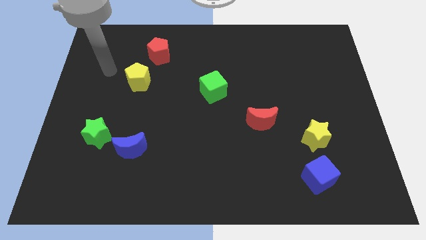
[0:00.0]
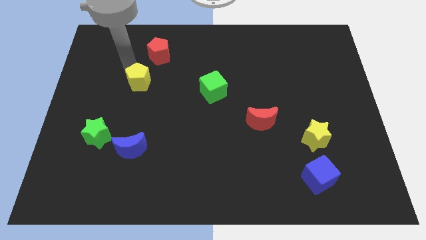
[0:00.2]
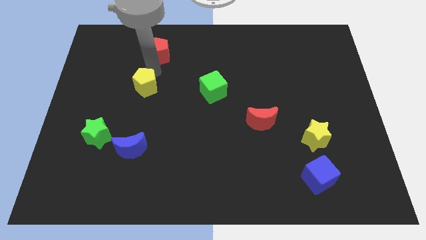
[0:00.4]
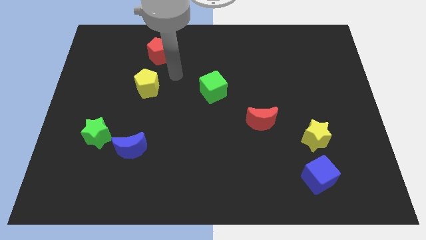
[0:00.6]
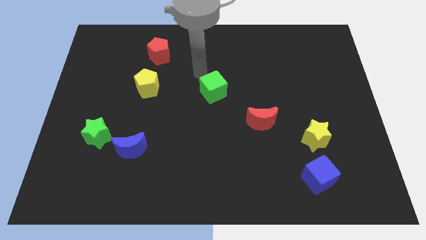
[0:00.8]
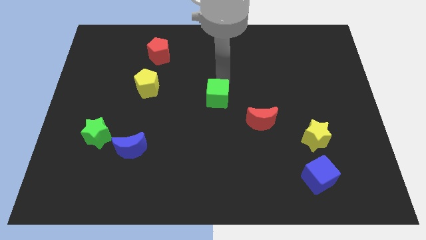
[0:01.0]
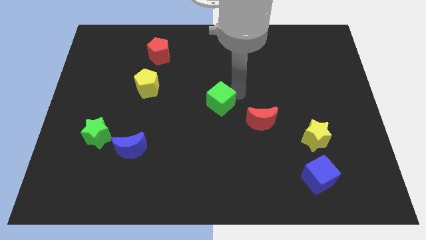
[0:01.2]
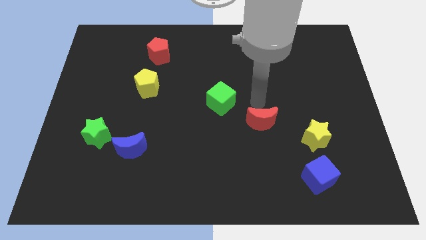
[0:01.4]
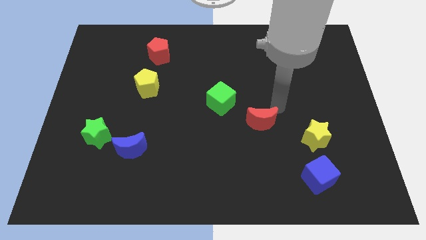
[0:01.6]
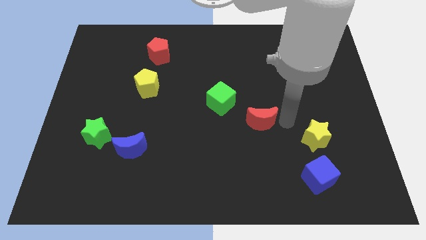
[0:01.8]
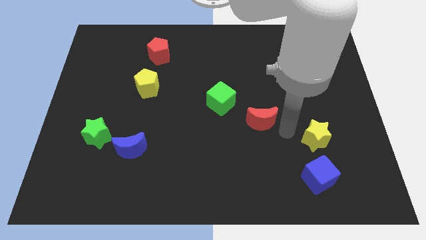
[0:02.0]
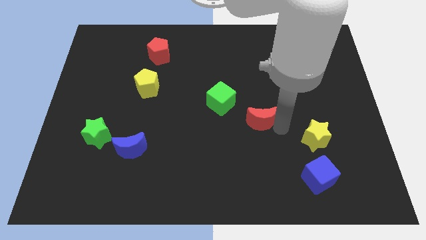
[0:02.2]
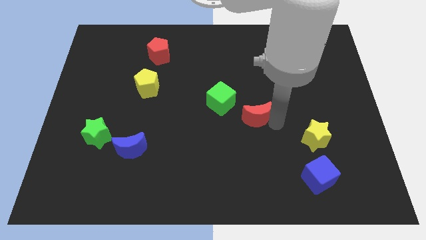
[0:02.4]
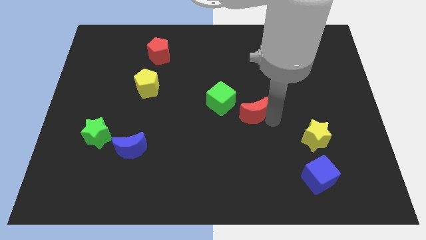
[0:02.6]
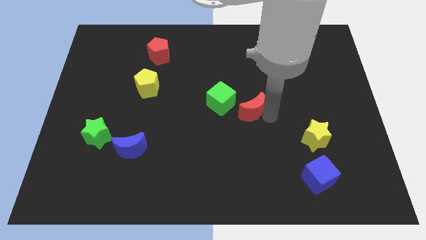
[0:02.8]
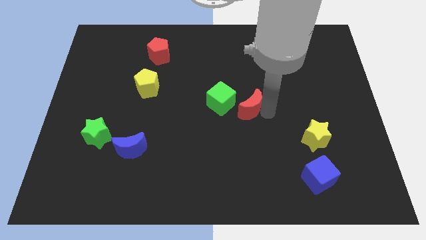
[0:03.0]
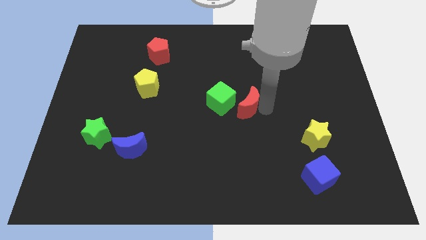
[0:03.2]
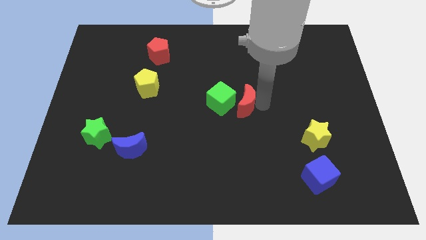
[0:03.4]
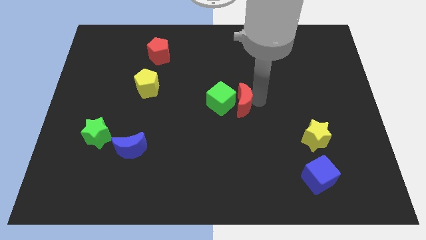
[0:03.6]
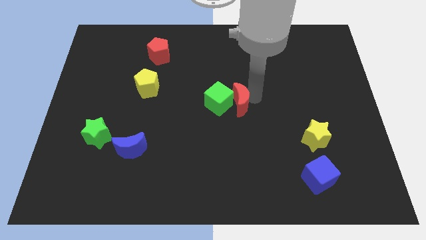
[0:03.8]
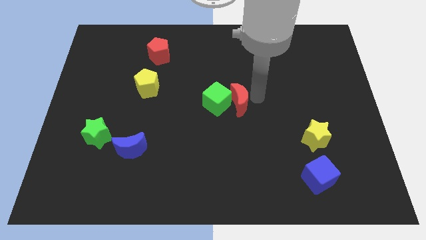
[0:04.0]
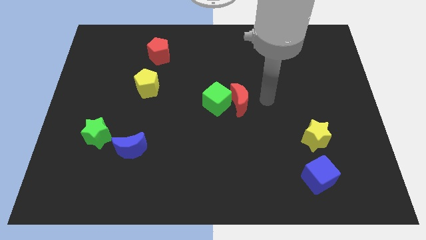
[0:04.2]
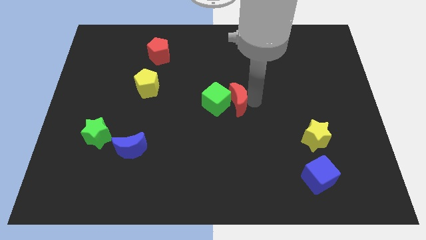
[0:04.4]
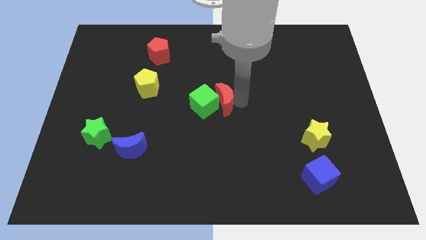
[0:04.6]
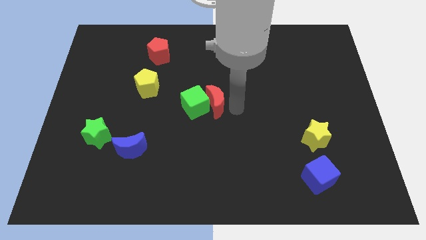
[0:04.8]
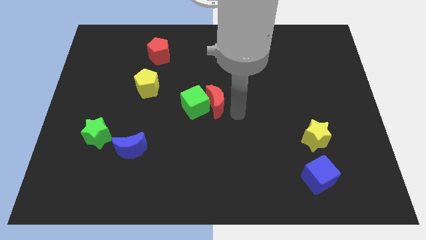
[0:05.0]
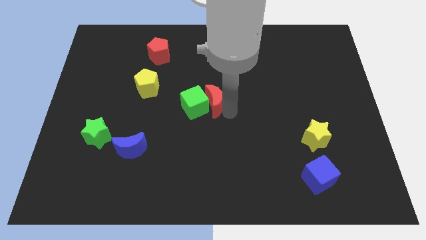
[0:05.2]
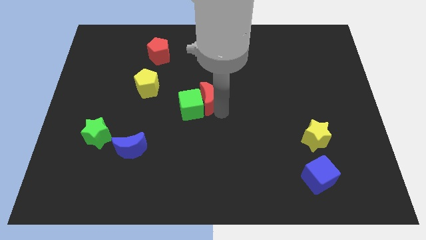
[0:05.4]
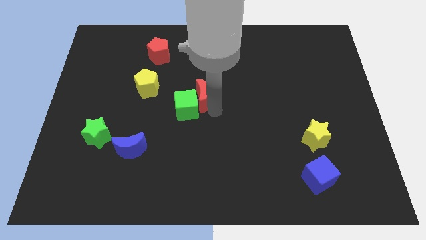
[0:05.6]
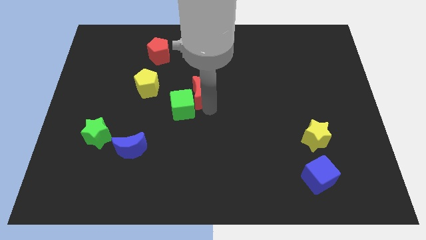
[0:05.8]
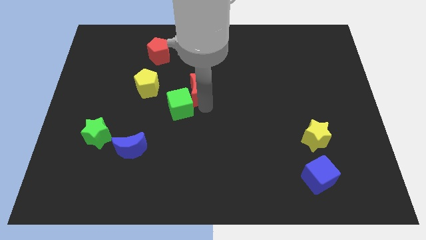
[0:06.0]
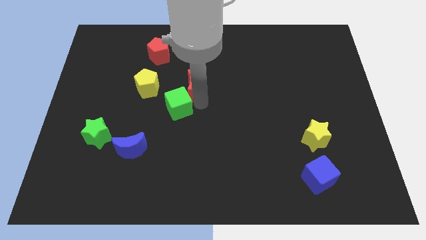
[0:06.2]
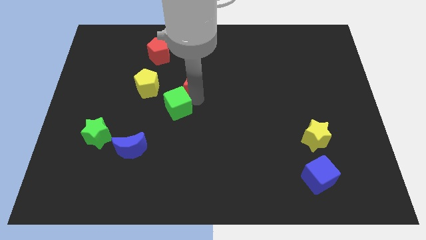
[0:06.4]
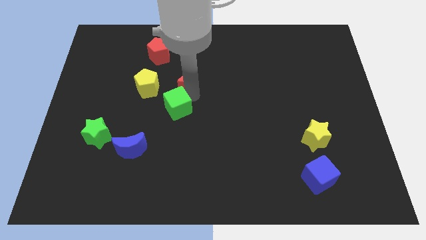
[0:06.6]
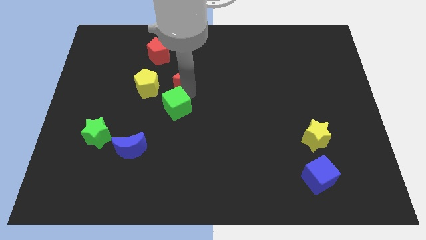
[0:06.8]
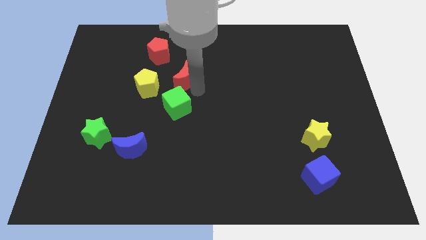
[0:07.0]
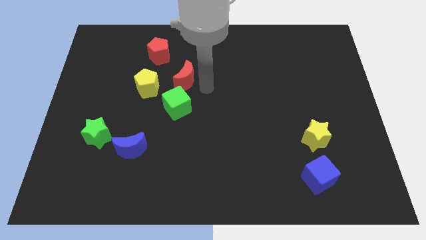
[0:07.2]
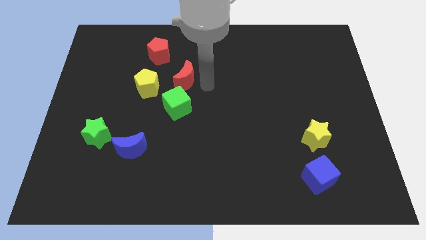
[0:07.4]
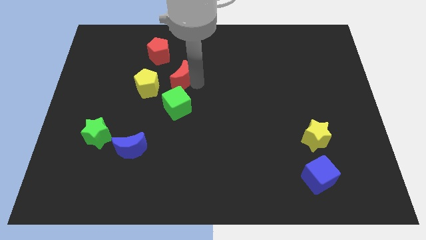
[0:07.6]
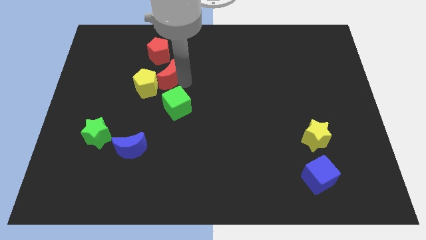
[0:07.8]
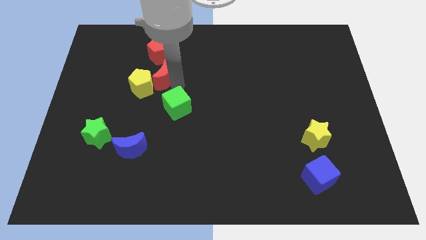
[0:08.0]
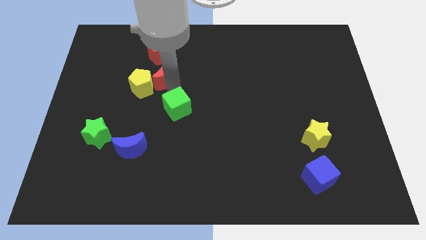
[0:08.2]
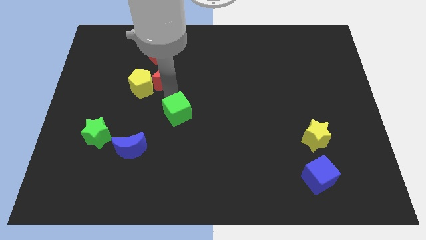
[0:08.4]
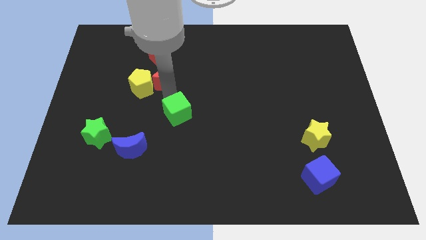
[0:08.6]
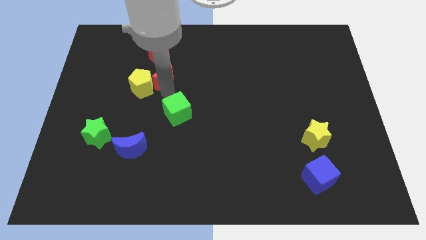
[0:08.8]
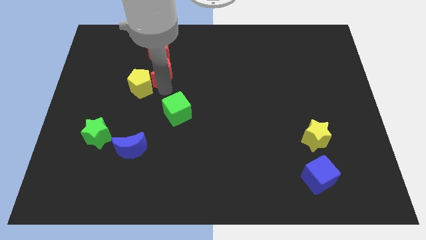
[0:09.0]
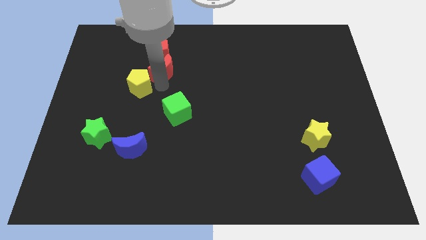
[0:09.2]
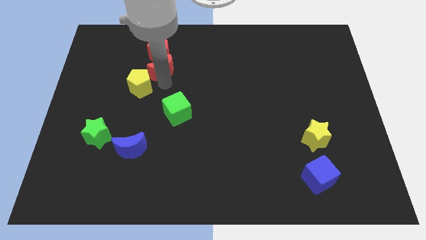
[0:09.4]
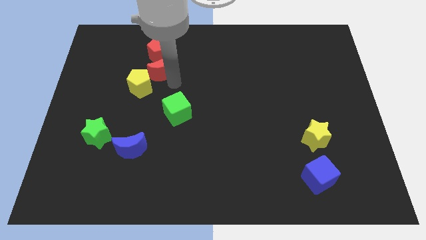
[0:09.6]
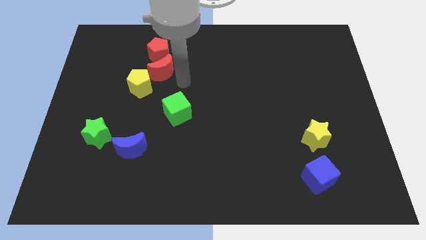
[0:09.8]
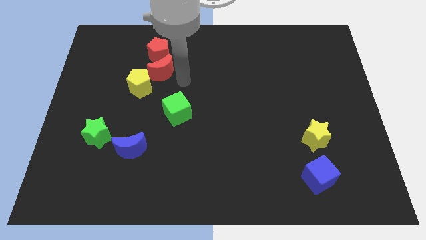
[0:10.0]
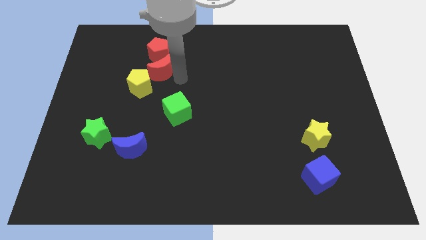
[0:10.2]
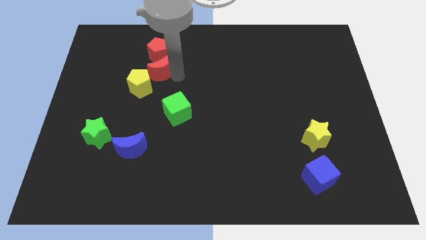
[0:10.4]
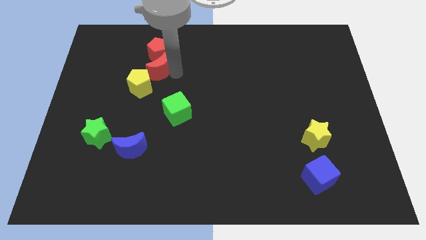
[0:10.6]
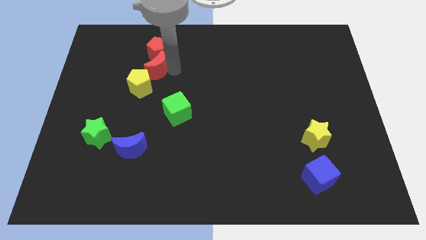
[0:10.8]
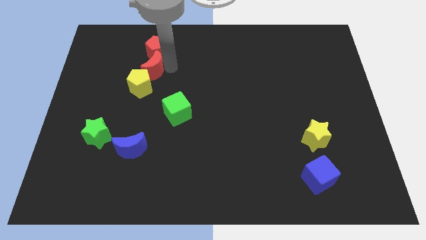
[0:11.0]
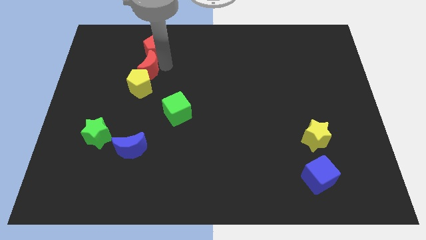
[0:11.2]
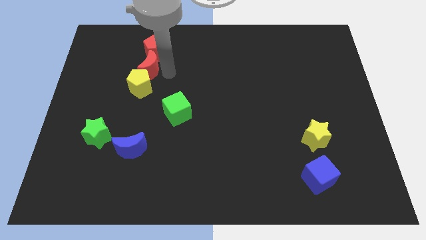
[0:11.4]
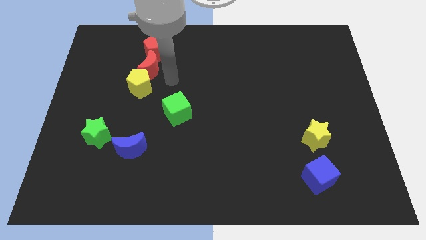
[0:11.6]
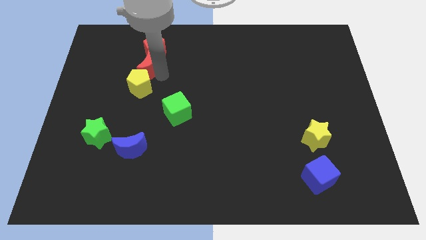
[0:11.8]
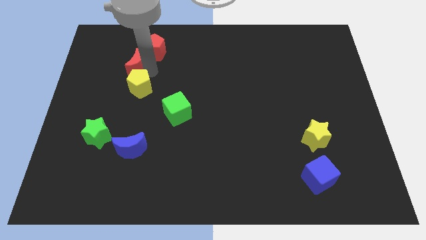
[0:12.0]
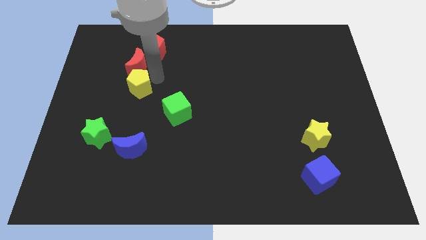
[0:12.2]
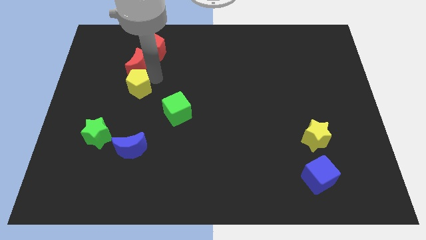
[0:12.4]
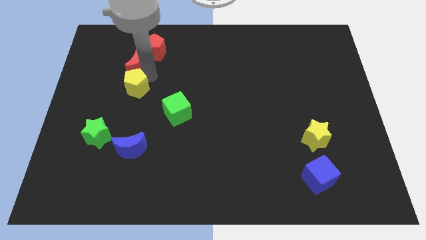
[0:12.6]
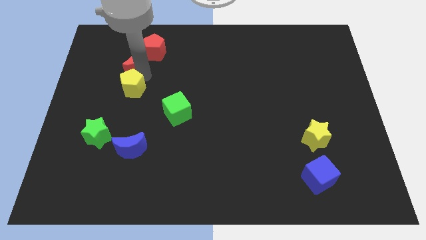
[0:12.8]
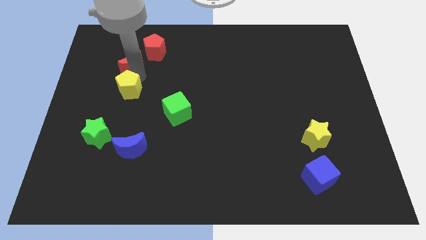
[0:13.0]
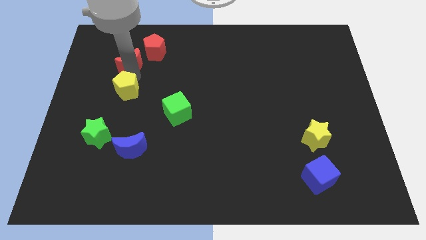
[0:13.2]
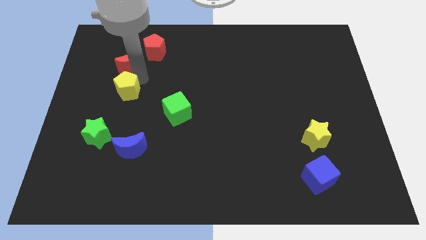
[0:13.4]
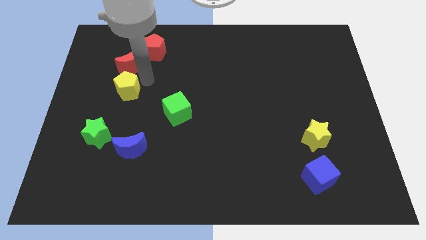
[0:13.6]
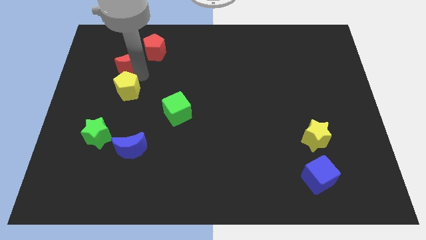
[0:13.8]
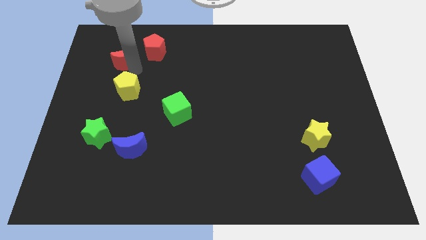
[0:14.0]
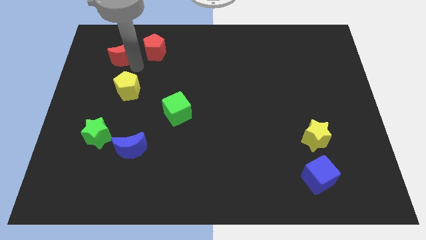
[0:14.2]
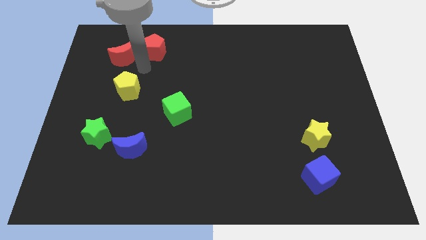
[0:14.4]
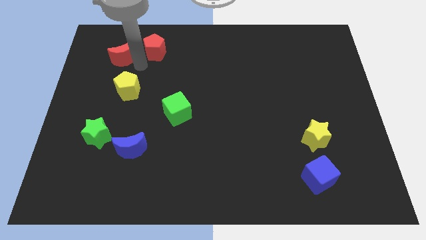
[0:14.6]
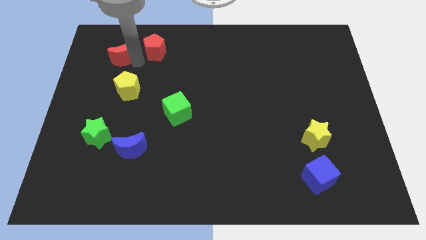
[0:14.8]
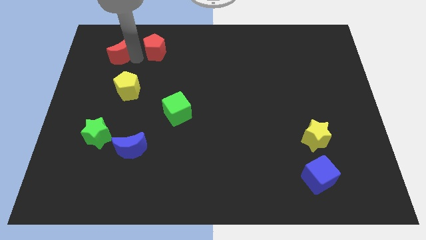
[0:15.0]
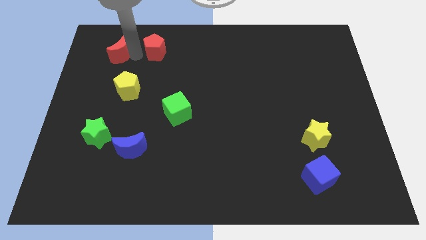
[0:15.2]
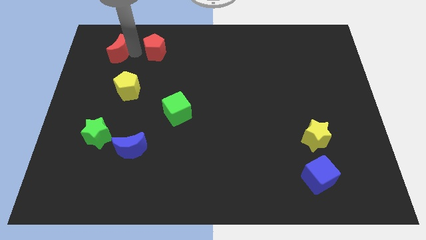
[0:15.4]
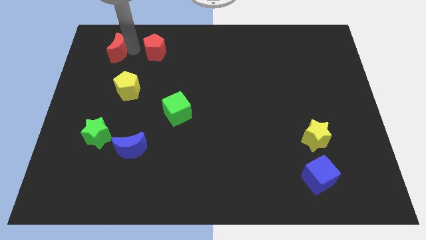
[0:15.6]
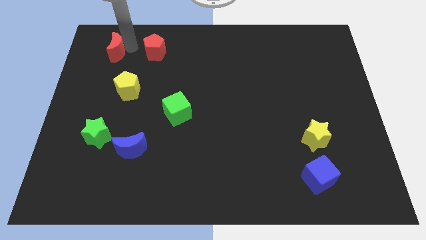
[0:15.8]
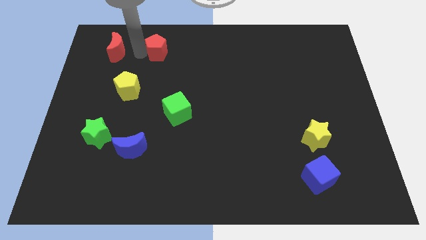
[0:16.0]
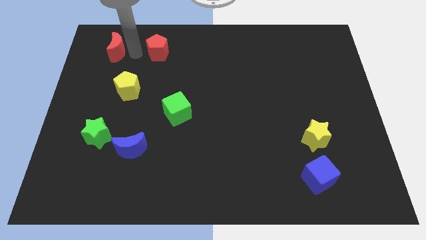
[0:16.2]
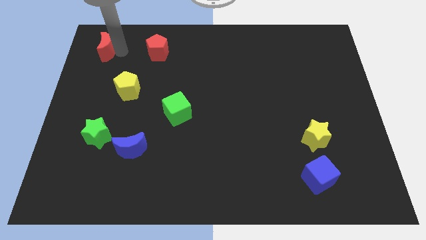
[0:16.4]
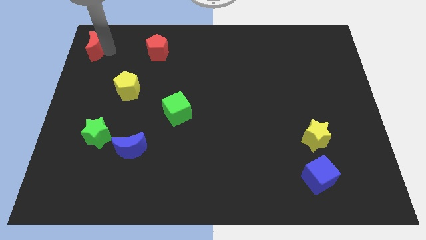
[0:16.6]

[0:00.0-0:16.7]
push the red moon to the top left
